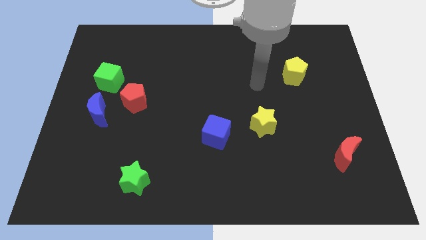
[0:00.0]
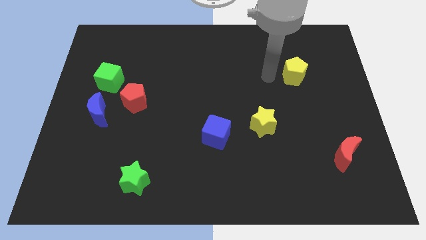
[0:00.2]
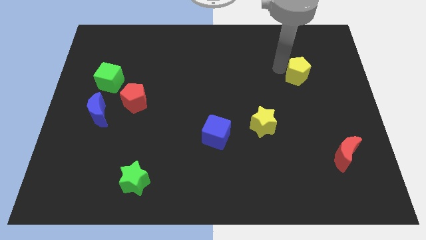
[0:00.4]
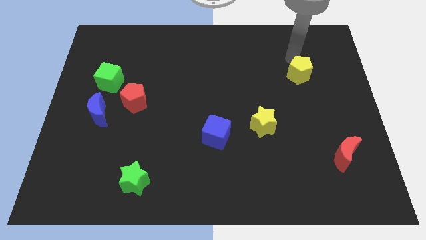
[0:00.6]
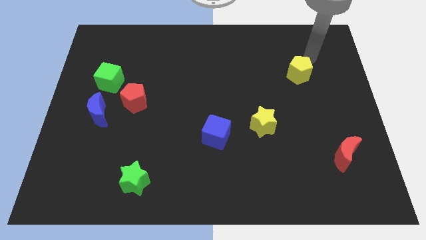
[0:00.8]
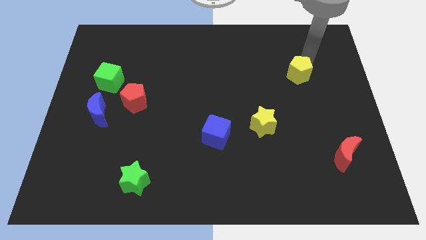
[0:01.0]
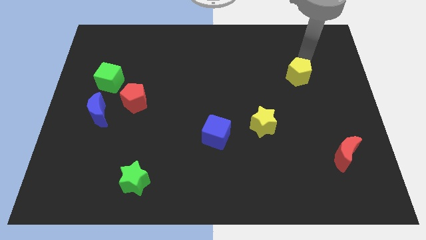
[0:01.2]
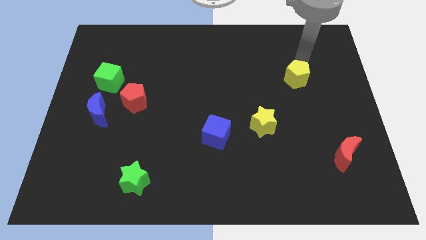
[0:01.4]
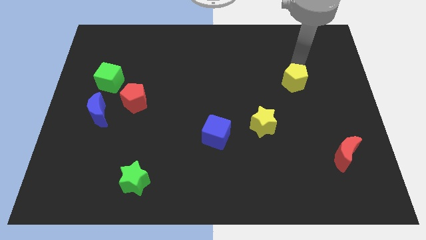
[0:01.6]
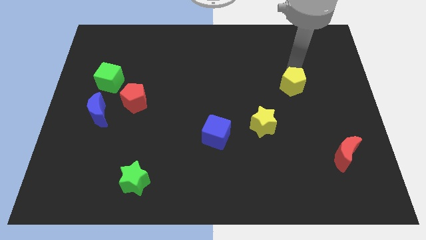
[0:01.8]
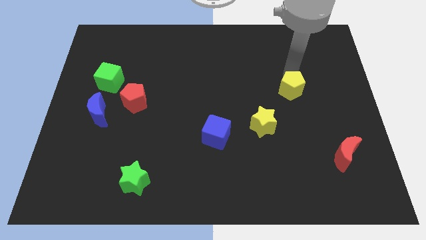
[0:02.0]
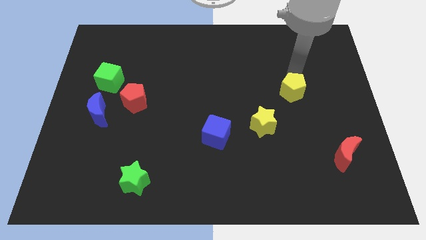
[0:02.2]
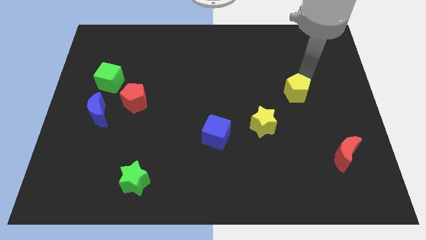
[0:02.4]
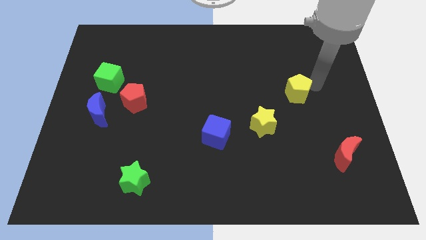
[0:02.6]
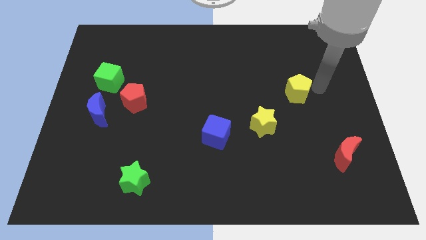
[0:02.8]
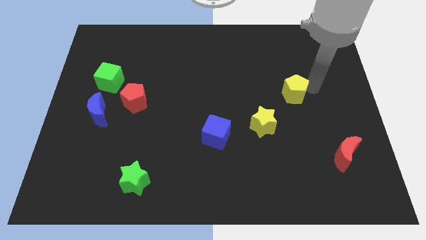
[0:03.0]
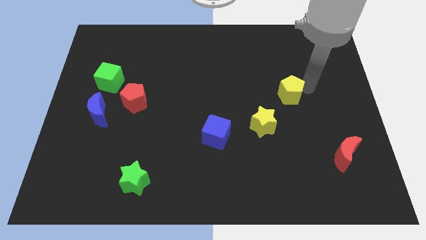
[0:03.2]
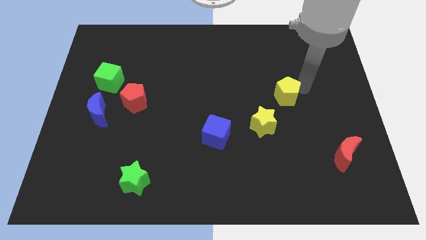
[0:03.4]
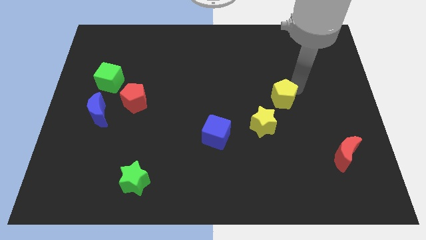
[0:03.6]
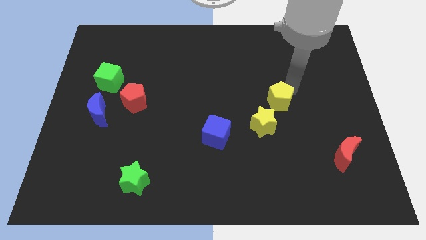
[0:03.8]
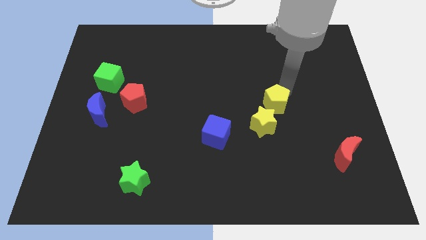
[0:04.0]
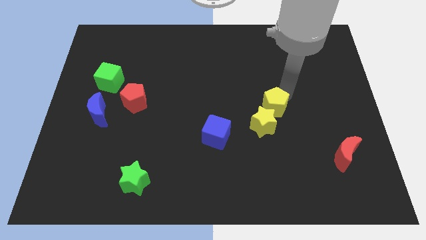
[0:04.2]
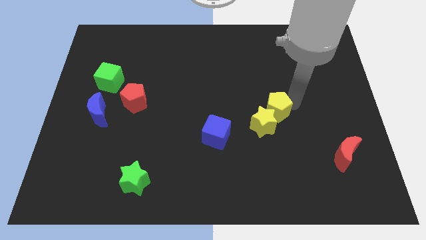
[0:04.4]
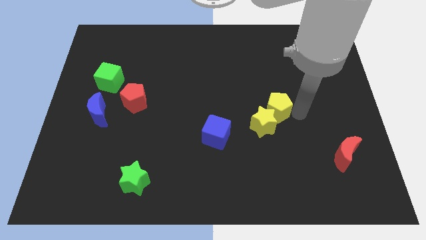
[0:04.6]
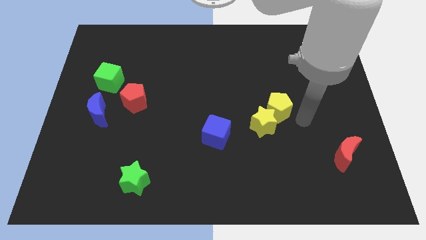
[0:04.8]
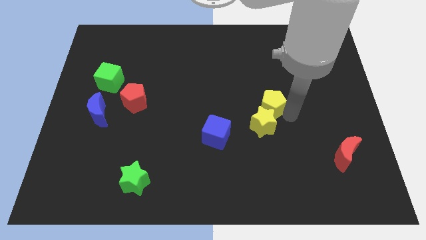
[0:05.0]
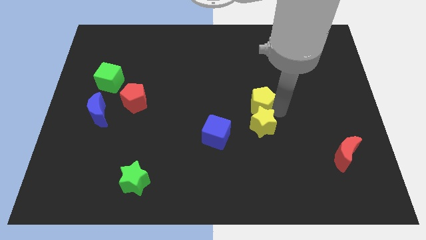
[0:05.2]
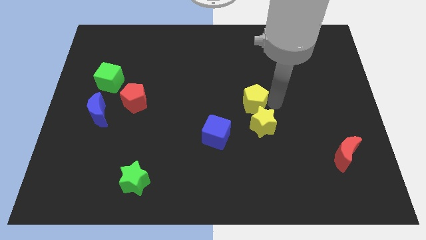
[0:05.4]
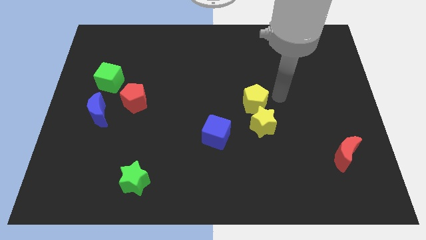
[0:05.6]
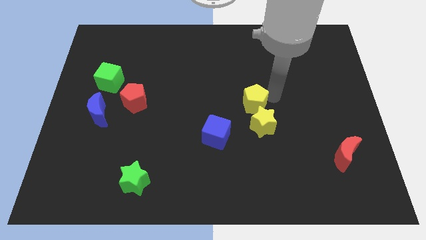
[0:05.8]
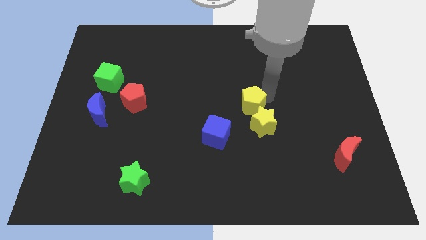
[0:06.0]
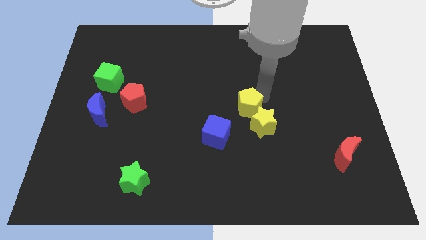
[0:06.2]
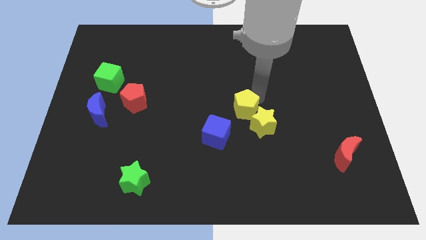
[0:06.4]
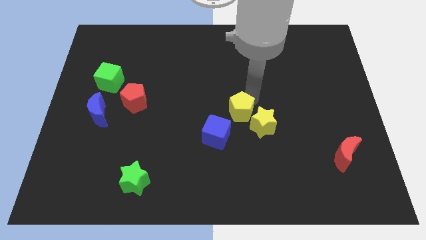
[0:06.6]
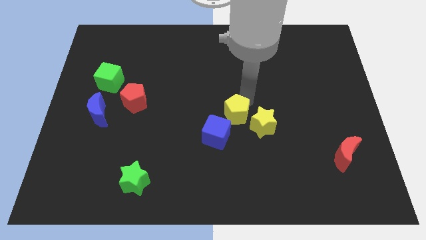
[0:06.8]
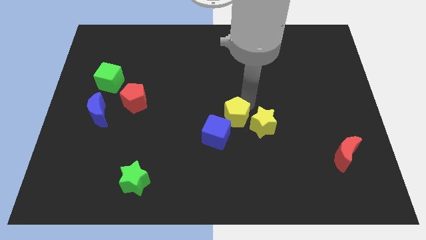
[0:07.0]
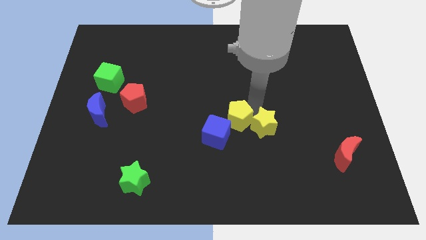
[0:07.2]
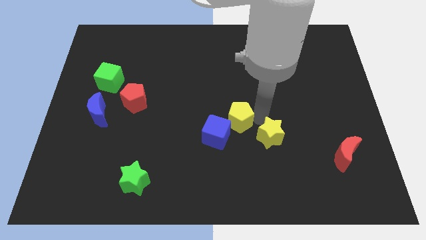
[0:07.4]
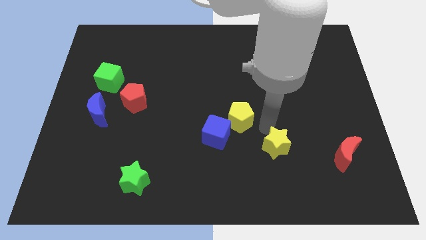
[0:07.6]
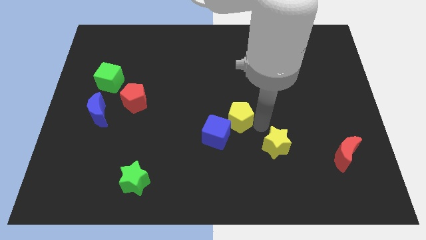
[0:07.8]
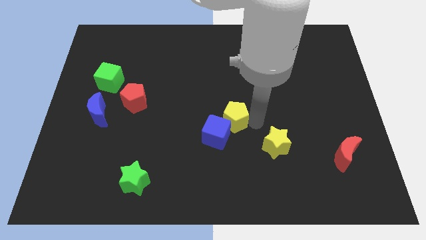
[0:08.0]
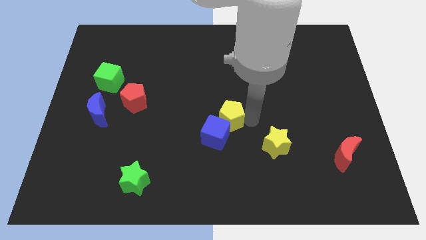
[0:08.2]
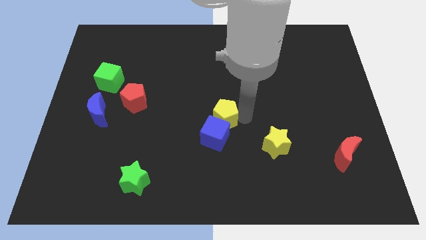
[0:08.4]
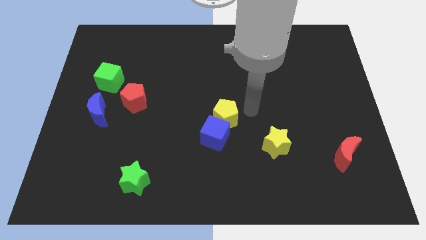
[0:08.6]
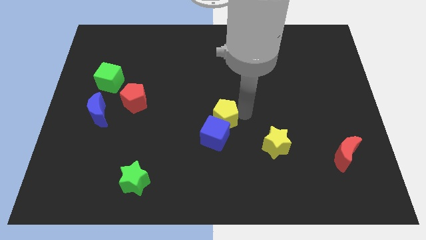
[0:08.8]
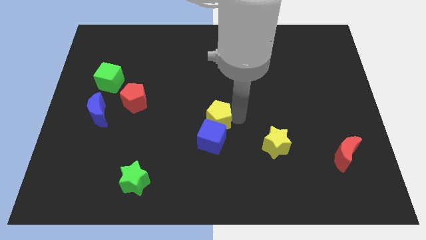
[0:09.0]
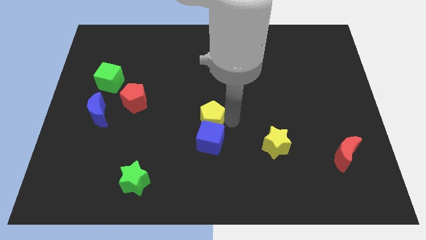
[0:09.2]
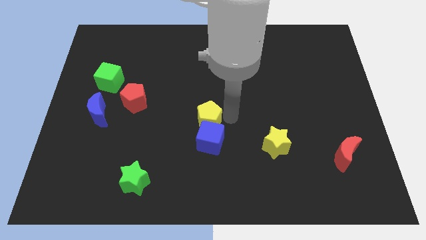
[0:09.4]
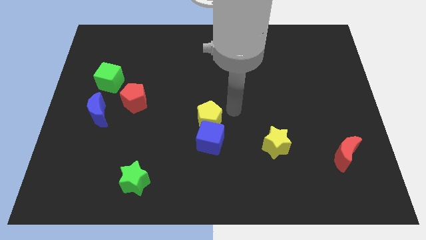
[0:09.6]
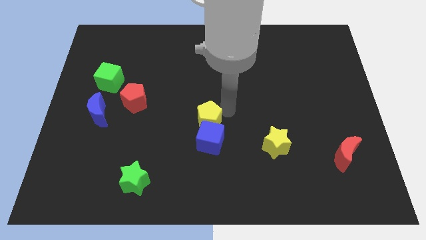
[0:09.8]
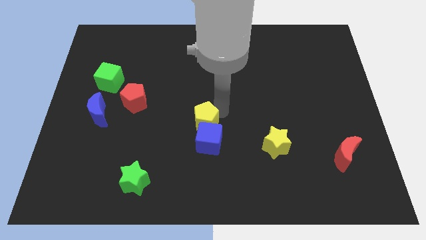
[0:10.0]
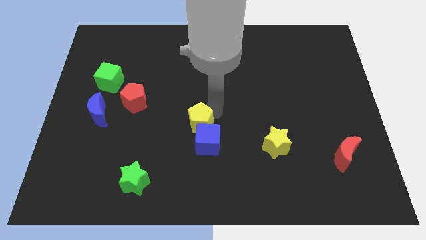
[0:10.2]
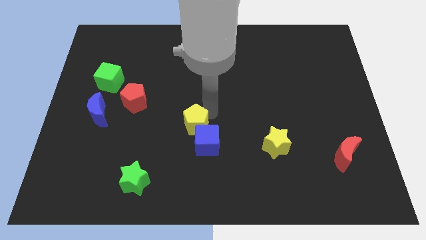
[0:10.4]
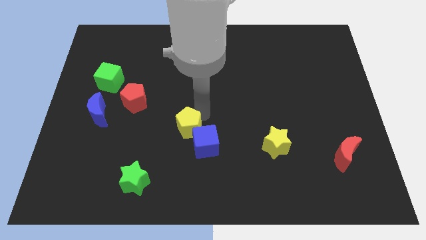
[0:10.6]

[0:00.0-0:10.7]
slide the yellow pentagon to the left side of the blue cube

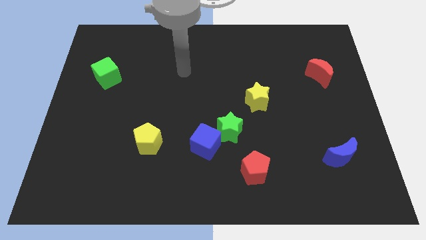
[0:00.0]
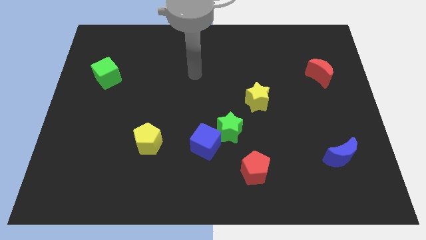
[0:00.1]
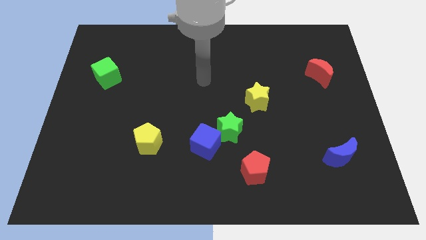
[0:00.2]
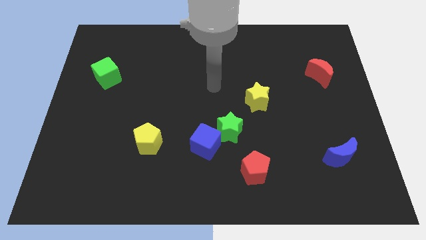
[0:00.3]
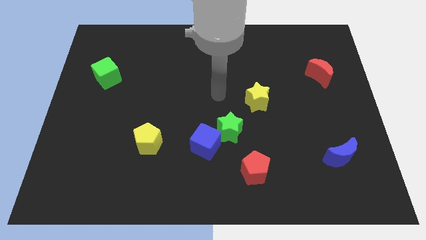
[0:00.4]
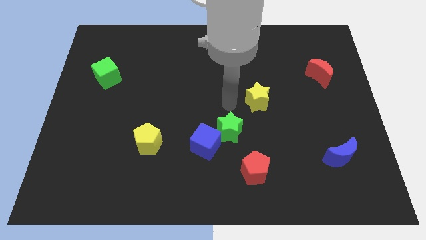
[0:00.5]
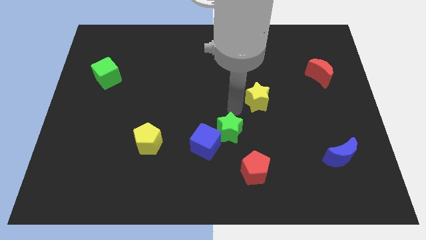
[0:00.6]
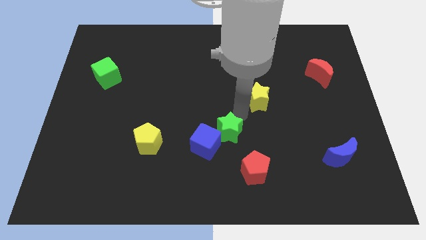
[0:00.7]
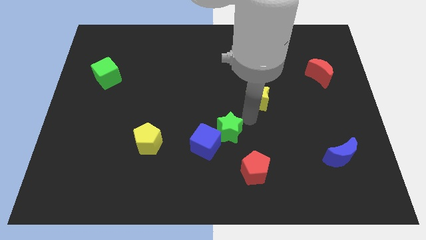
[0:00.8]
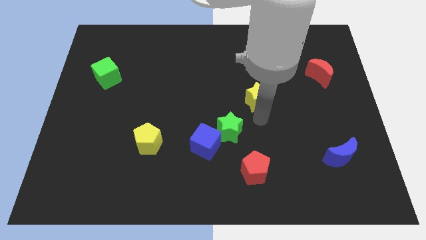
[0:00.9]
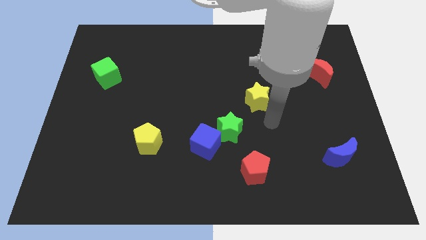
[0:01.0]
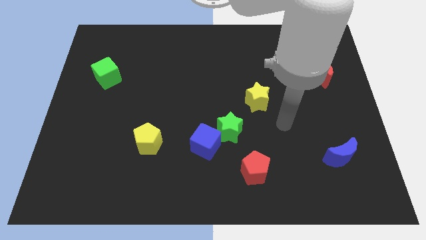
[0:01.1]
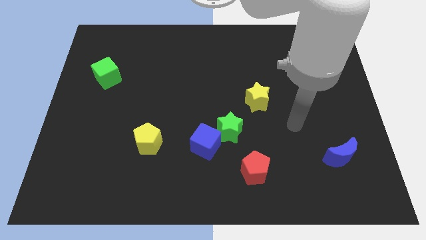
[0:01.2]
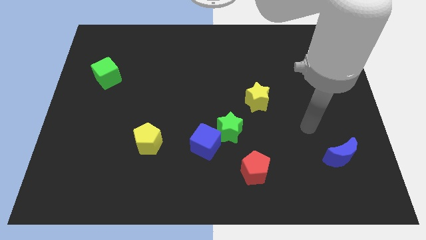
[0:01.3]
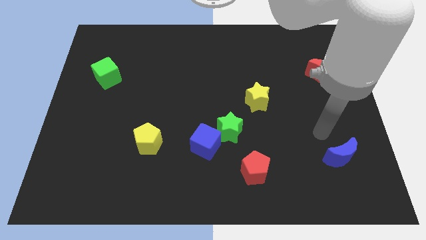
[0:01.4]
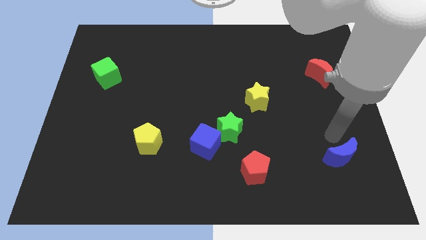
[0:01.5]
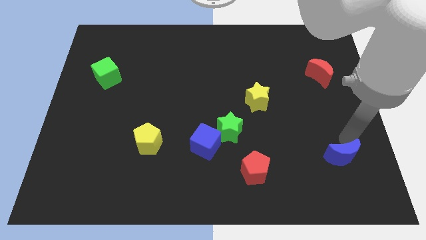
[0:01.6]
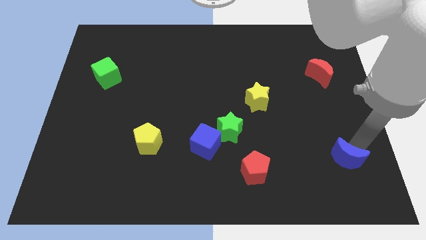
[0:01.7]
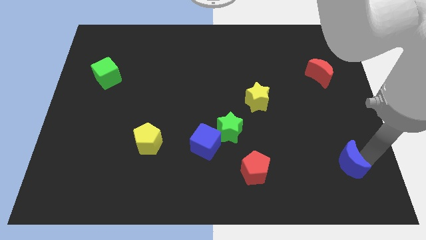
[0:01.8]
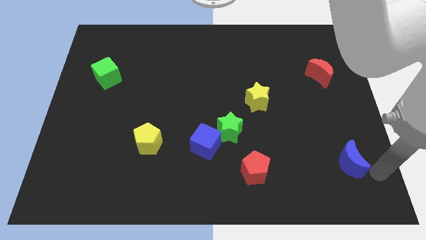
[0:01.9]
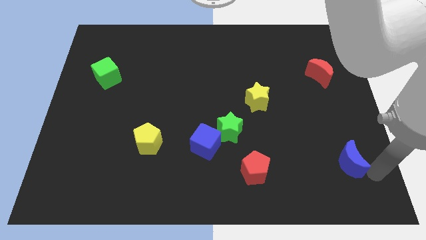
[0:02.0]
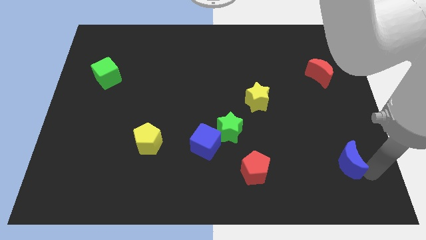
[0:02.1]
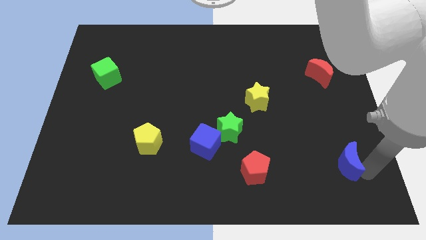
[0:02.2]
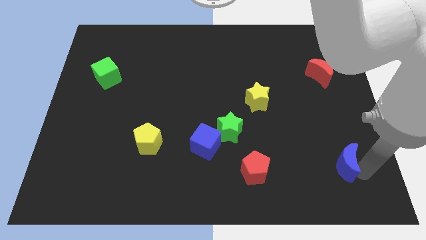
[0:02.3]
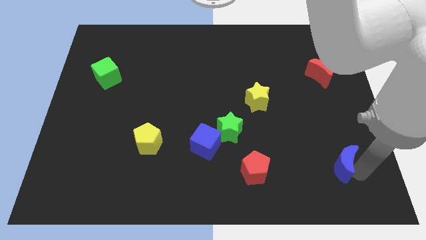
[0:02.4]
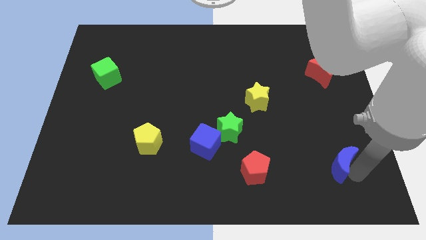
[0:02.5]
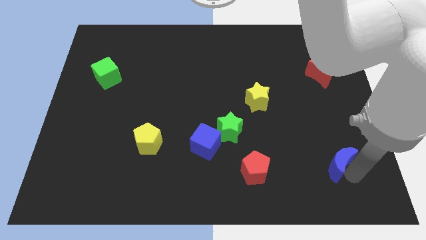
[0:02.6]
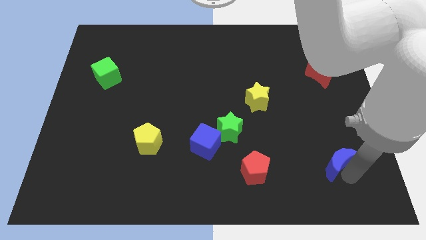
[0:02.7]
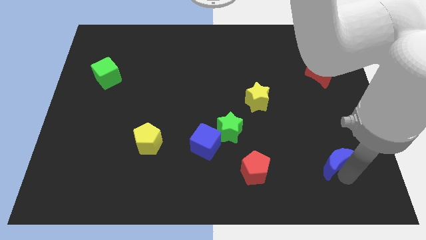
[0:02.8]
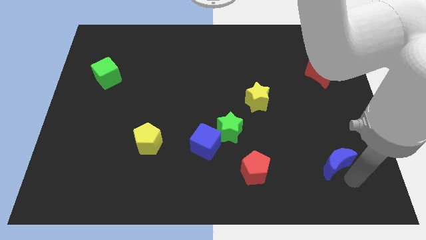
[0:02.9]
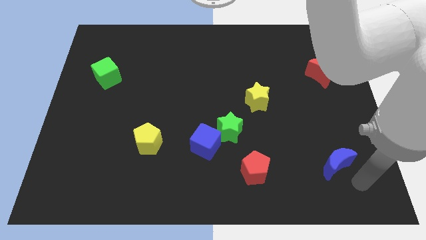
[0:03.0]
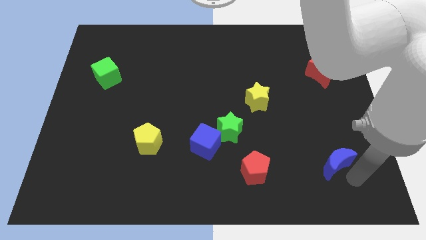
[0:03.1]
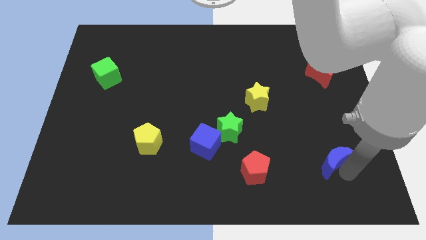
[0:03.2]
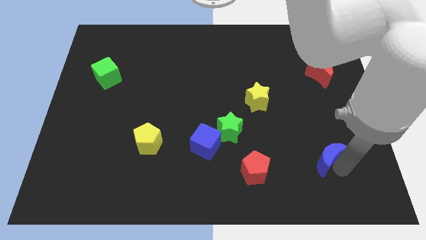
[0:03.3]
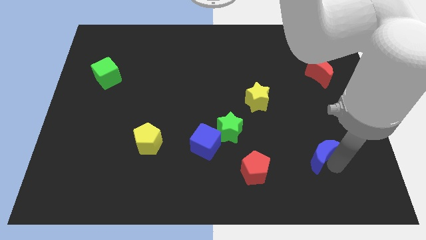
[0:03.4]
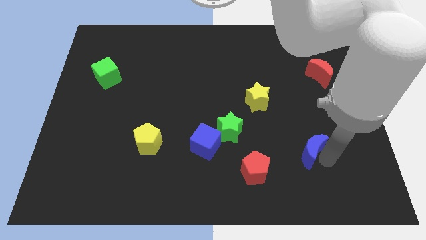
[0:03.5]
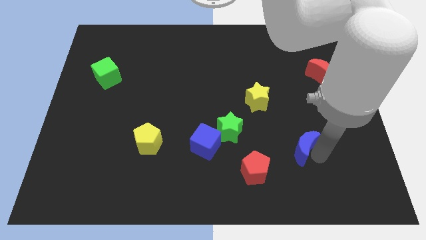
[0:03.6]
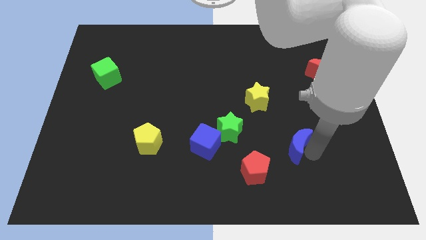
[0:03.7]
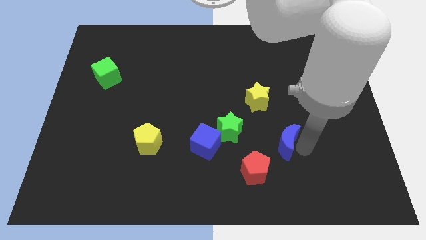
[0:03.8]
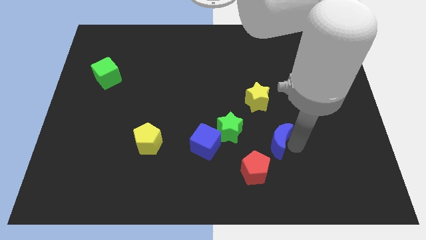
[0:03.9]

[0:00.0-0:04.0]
put the blue moon to the bottom of the yellow star
